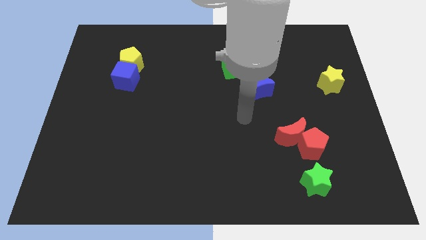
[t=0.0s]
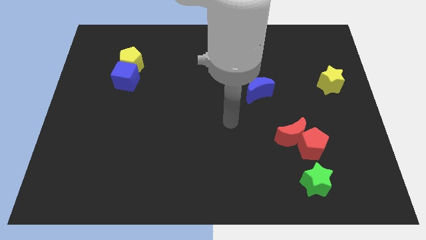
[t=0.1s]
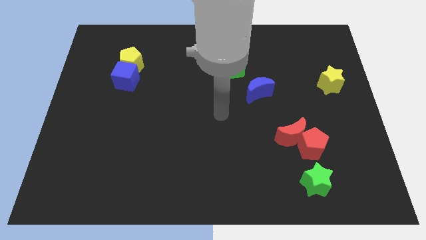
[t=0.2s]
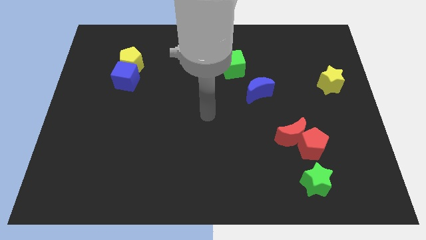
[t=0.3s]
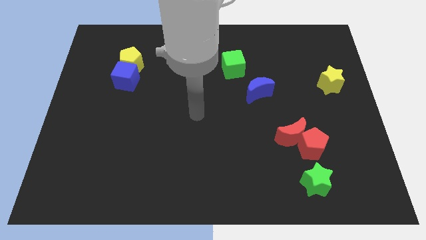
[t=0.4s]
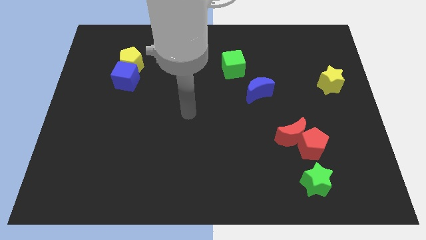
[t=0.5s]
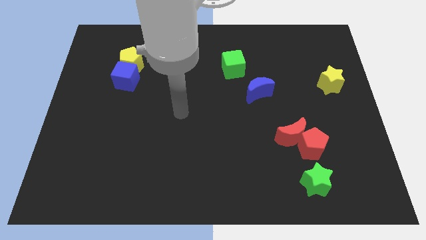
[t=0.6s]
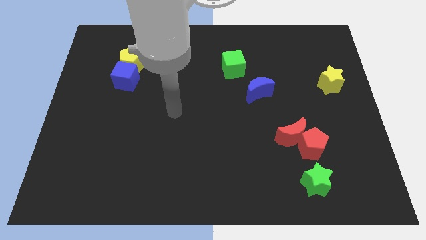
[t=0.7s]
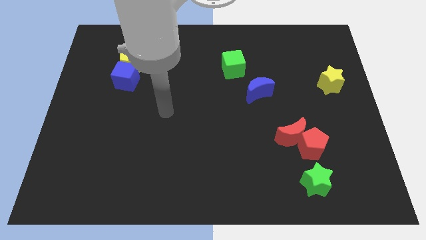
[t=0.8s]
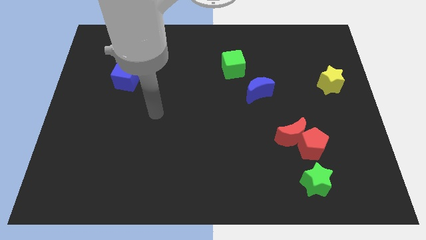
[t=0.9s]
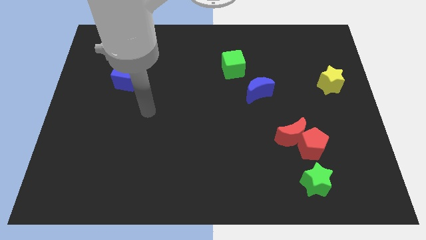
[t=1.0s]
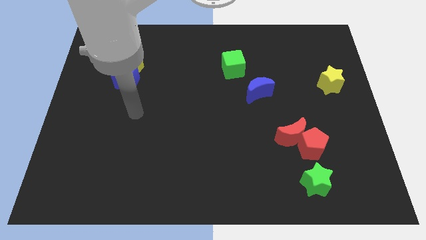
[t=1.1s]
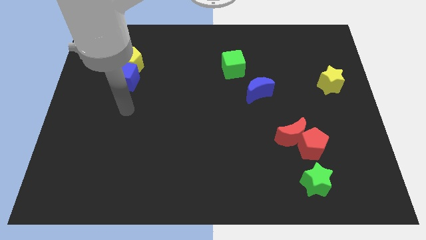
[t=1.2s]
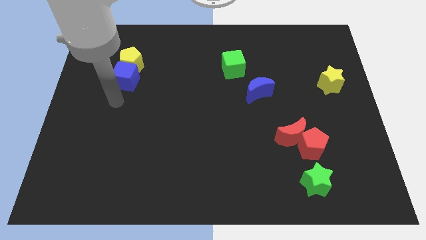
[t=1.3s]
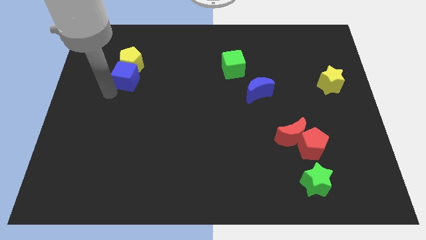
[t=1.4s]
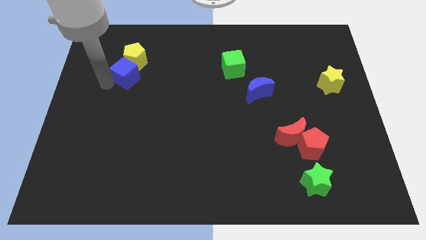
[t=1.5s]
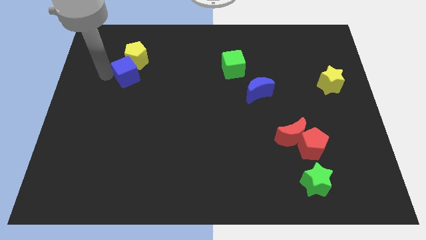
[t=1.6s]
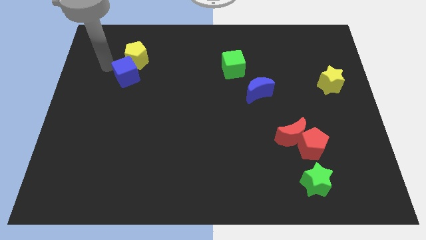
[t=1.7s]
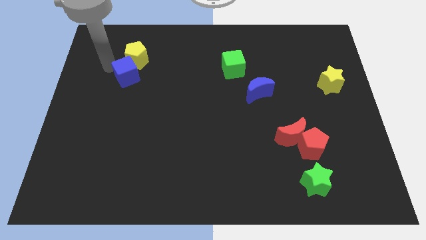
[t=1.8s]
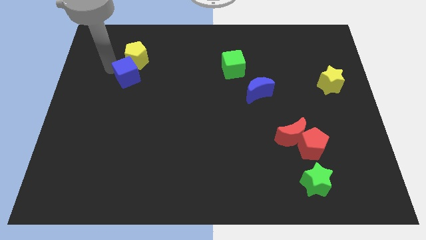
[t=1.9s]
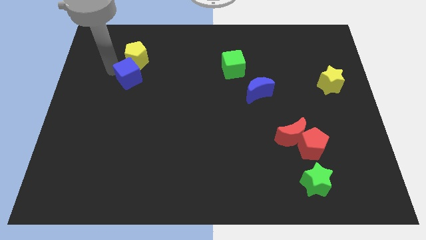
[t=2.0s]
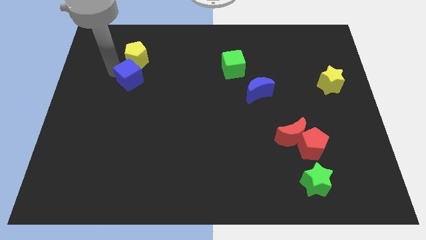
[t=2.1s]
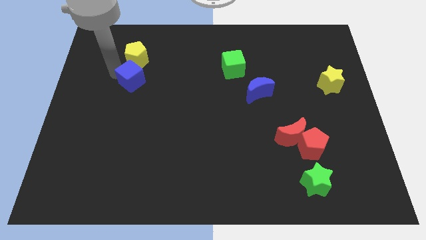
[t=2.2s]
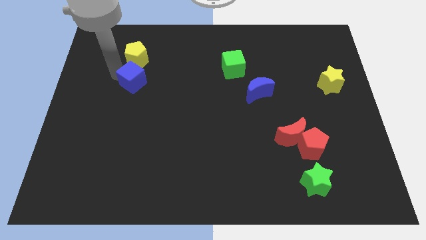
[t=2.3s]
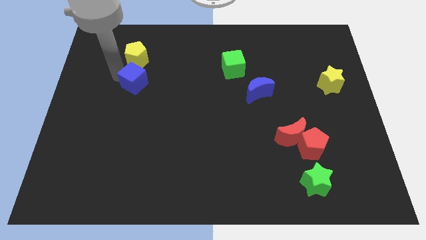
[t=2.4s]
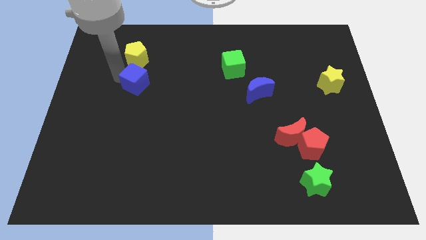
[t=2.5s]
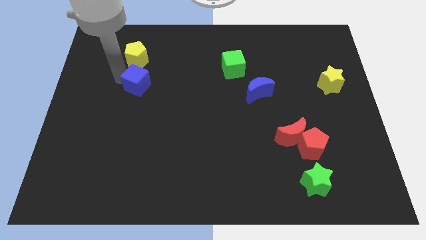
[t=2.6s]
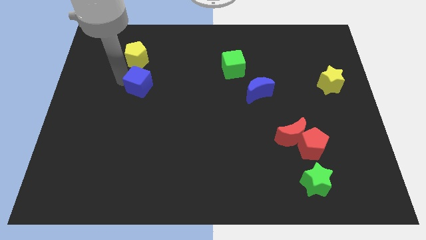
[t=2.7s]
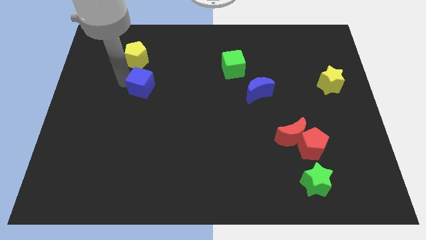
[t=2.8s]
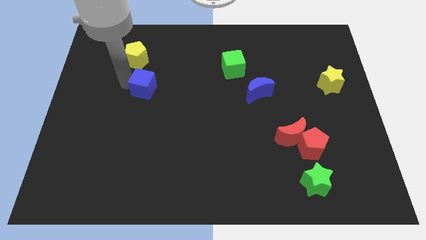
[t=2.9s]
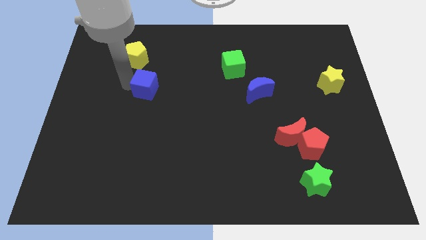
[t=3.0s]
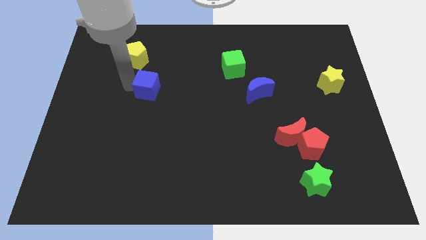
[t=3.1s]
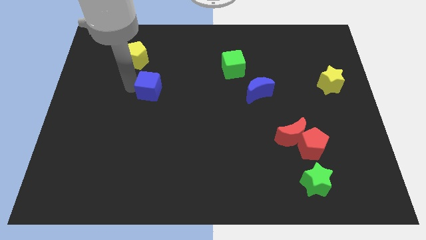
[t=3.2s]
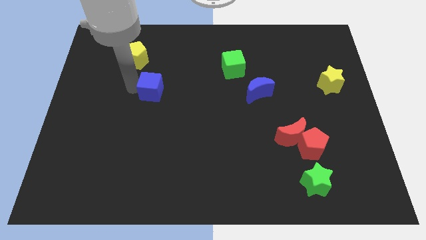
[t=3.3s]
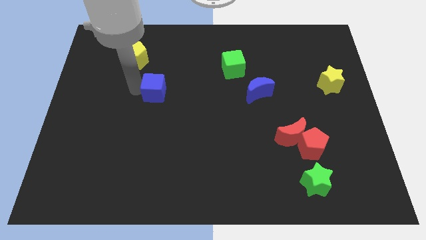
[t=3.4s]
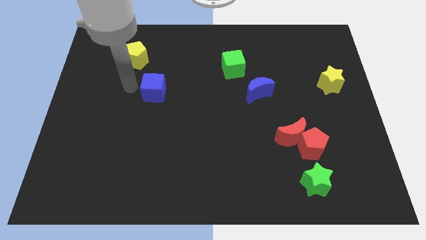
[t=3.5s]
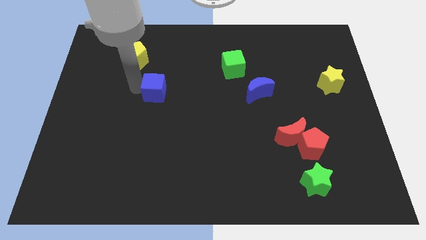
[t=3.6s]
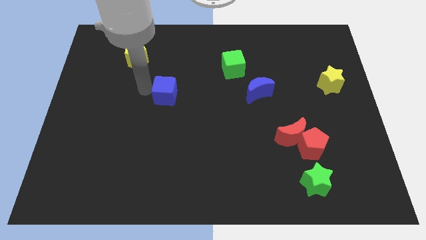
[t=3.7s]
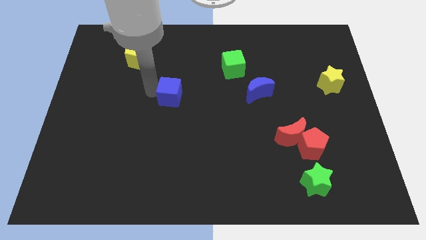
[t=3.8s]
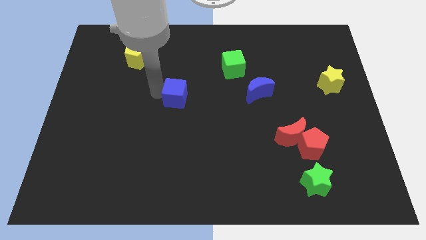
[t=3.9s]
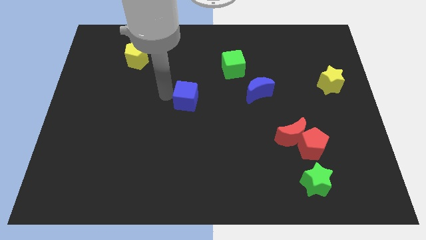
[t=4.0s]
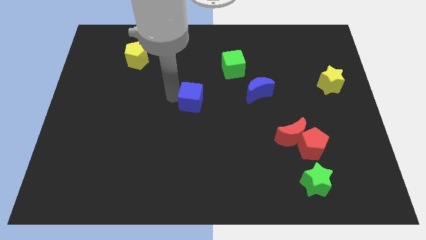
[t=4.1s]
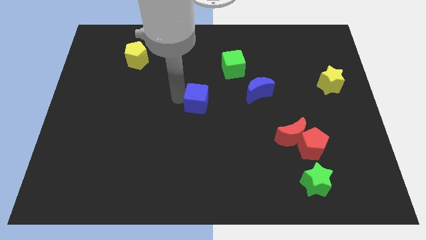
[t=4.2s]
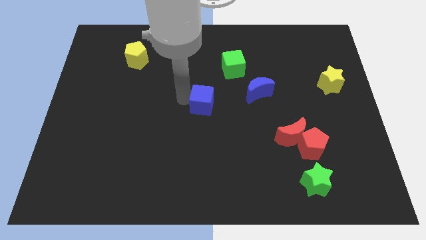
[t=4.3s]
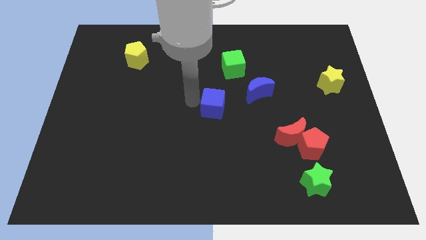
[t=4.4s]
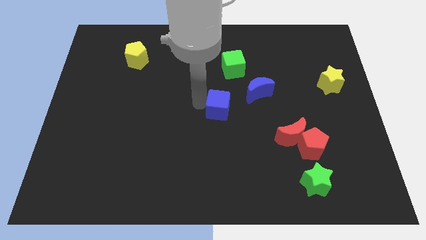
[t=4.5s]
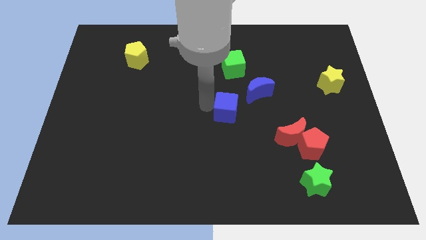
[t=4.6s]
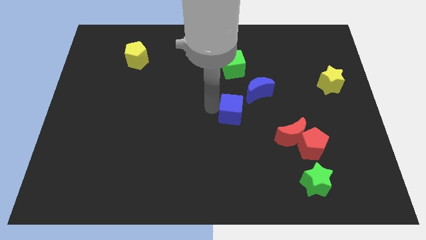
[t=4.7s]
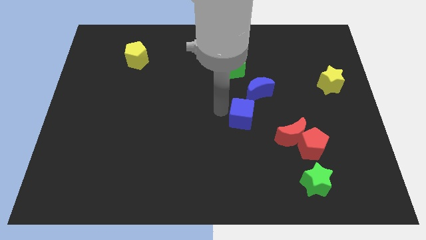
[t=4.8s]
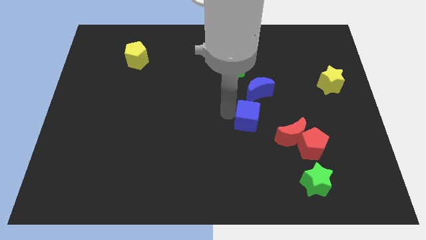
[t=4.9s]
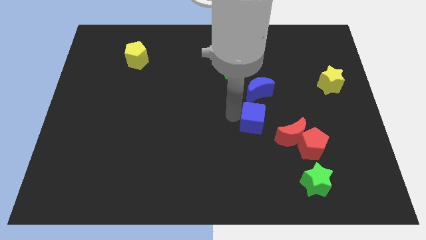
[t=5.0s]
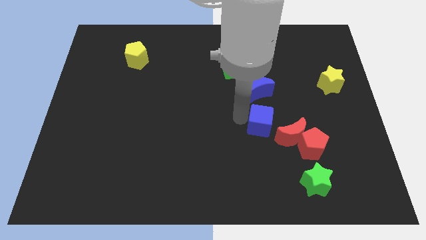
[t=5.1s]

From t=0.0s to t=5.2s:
move the blue cube to the top left side of the red pentagon

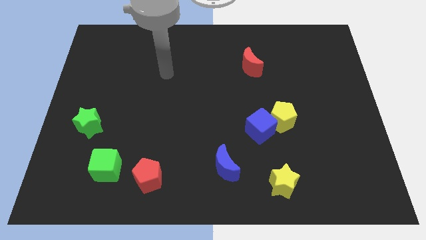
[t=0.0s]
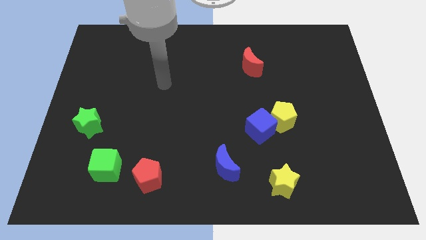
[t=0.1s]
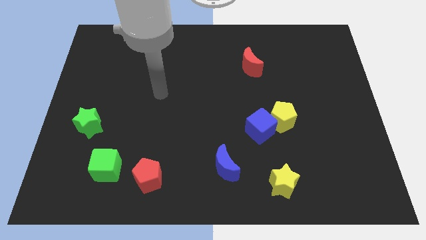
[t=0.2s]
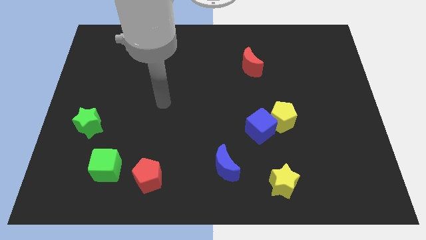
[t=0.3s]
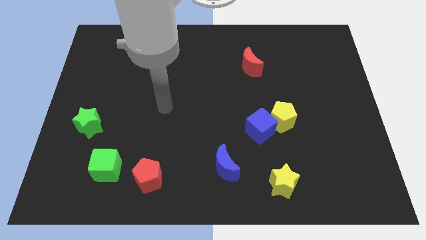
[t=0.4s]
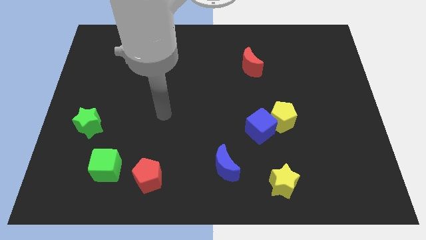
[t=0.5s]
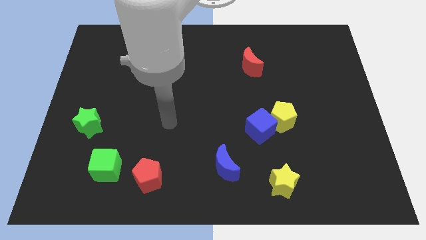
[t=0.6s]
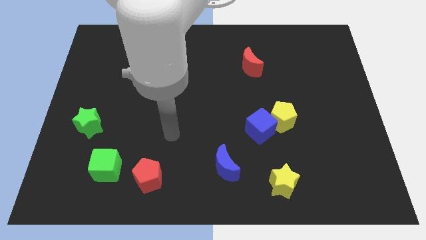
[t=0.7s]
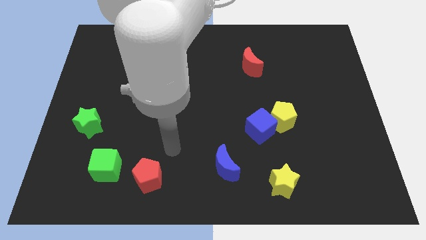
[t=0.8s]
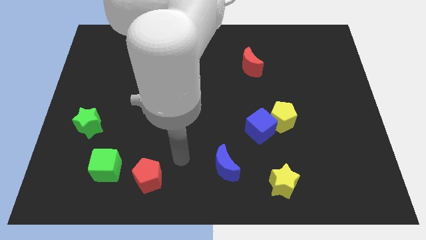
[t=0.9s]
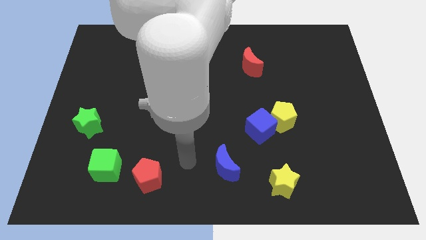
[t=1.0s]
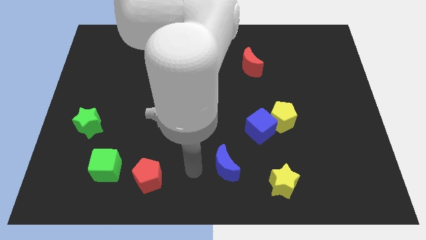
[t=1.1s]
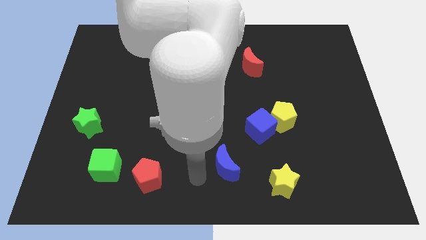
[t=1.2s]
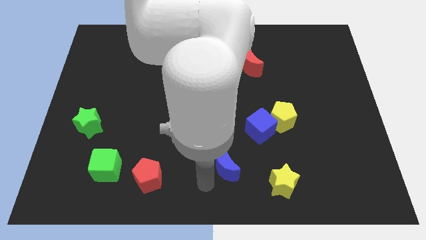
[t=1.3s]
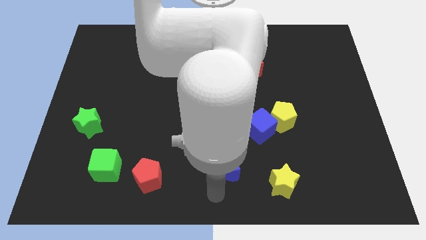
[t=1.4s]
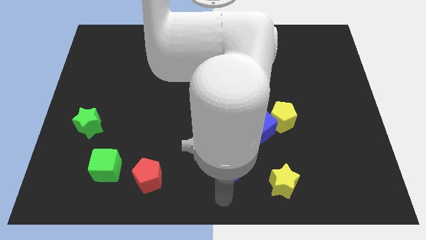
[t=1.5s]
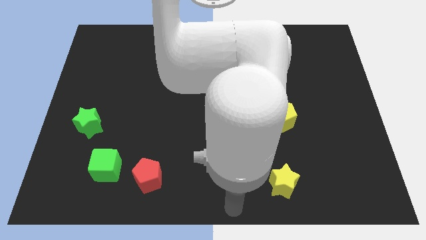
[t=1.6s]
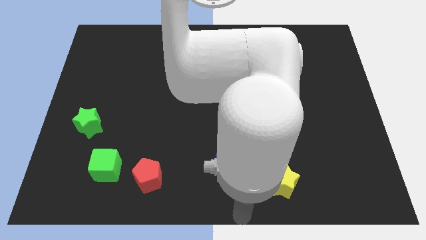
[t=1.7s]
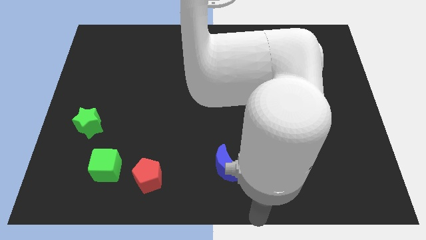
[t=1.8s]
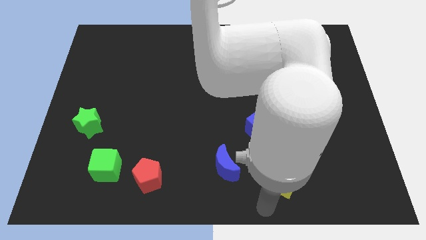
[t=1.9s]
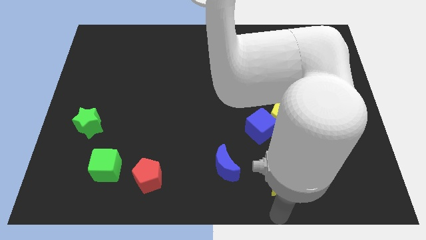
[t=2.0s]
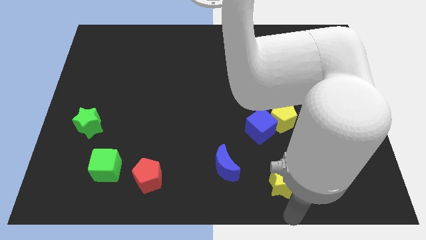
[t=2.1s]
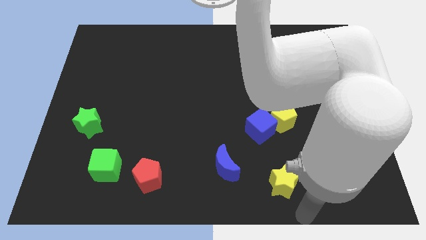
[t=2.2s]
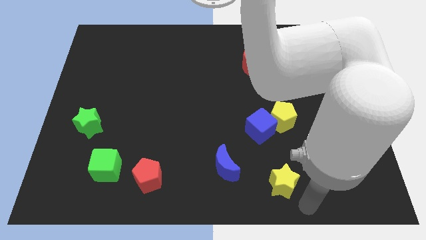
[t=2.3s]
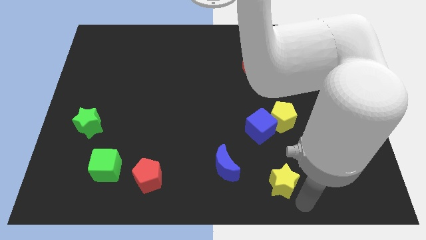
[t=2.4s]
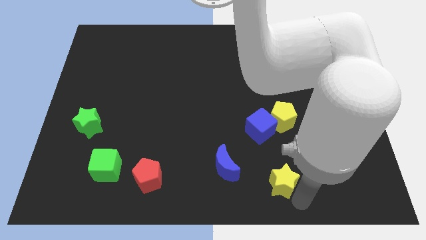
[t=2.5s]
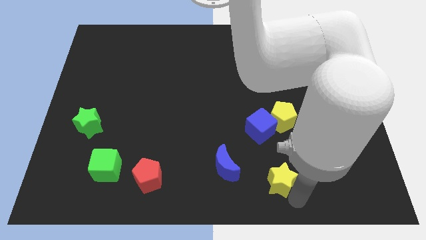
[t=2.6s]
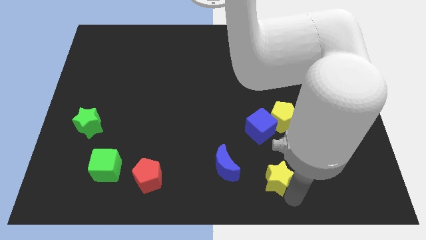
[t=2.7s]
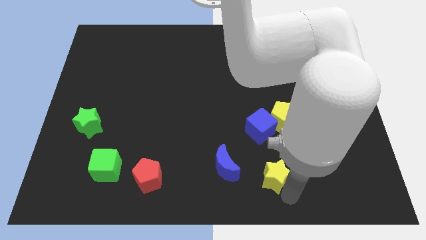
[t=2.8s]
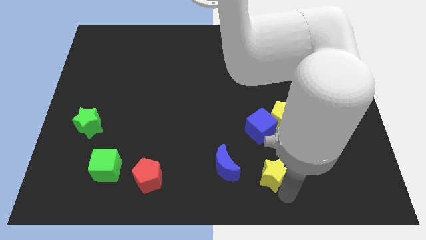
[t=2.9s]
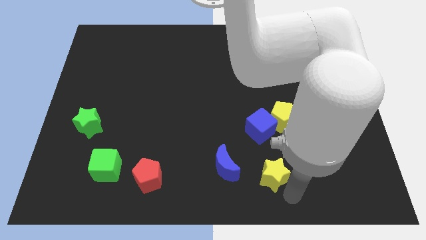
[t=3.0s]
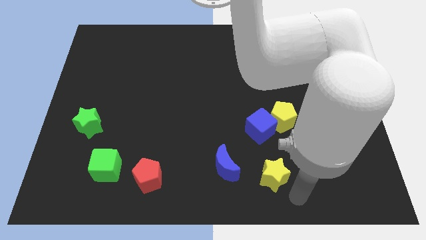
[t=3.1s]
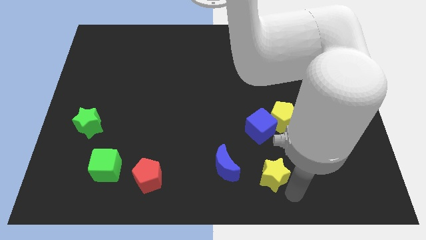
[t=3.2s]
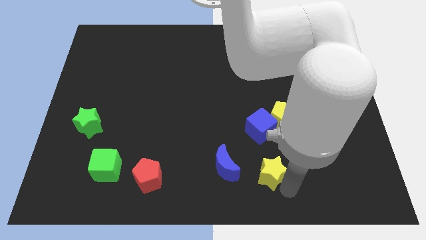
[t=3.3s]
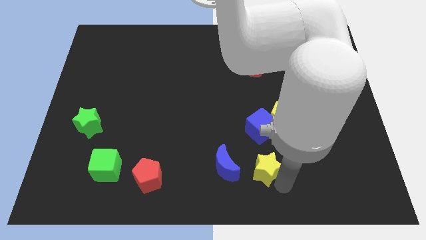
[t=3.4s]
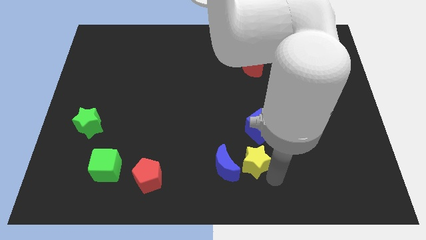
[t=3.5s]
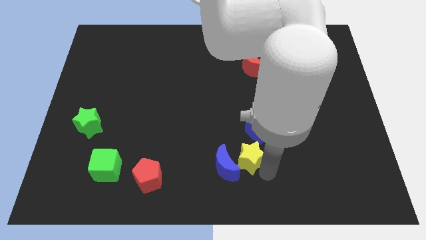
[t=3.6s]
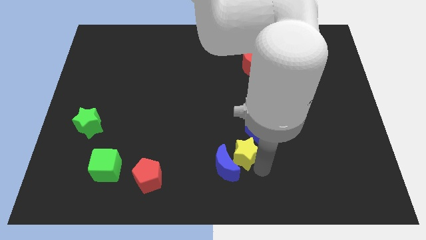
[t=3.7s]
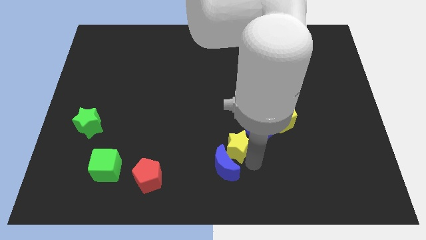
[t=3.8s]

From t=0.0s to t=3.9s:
slide the yellow star left of the blue cube
